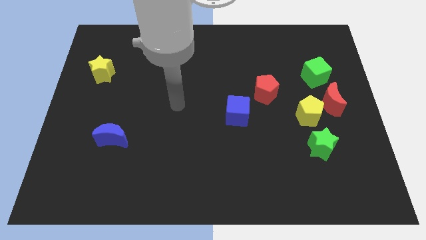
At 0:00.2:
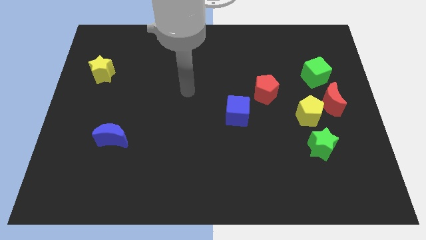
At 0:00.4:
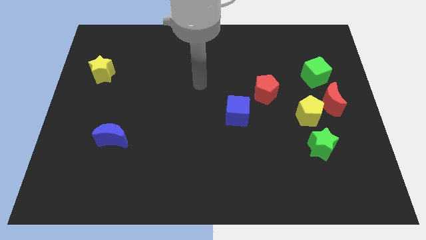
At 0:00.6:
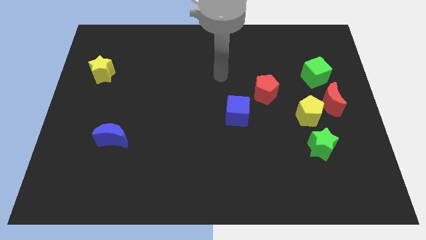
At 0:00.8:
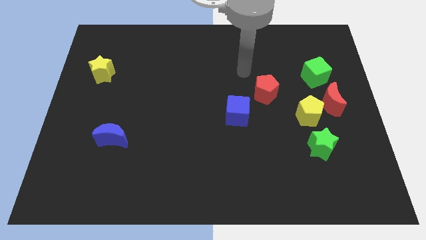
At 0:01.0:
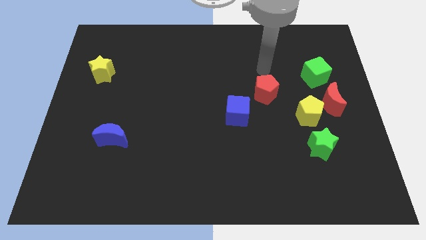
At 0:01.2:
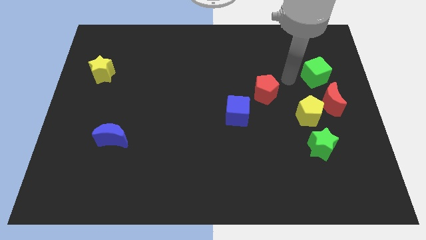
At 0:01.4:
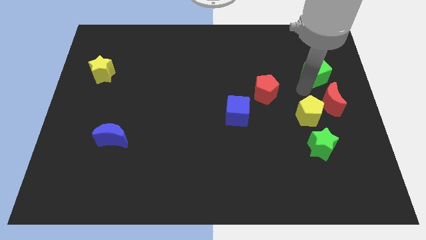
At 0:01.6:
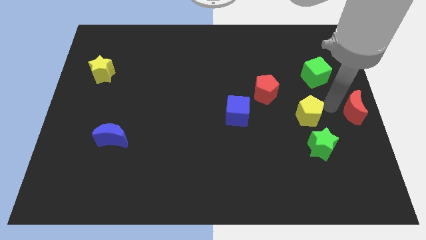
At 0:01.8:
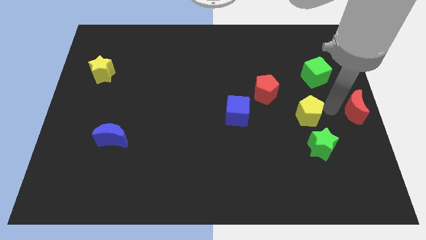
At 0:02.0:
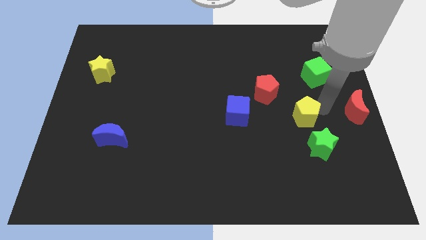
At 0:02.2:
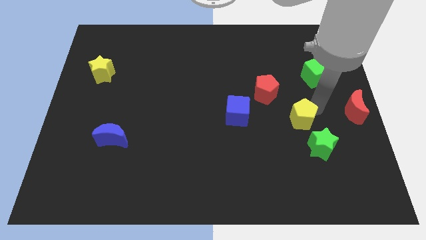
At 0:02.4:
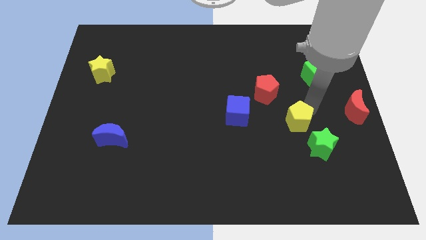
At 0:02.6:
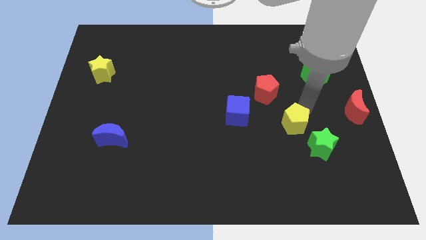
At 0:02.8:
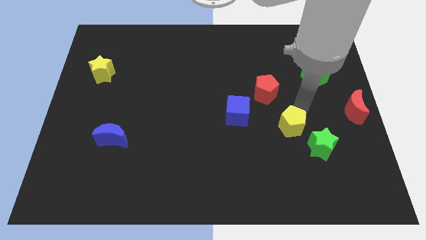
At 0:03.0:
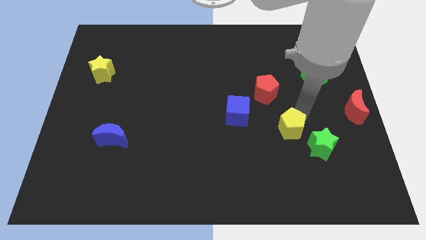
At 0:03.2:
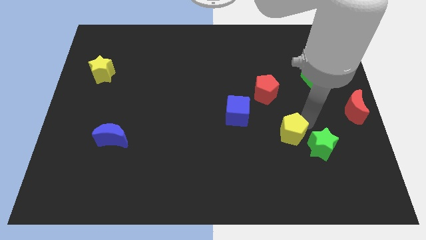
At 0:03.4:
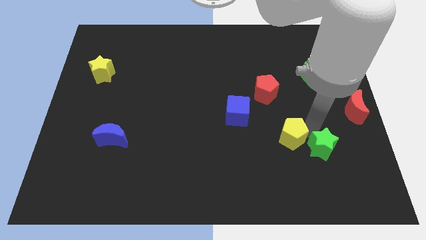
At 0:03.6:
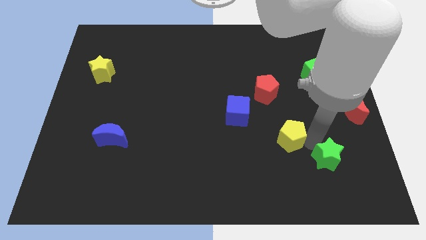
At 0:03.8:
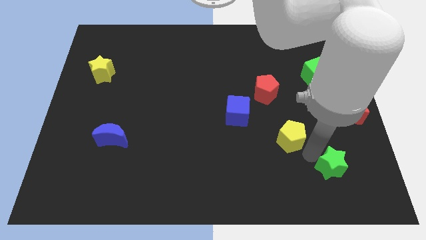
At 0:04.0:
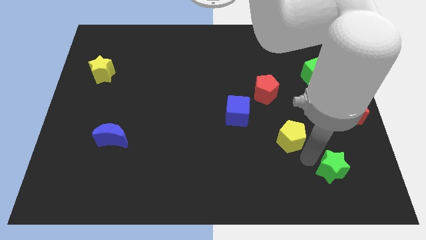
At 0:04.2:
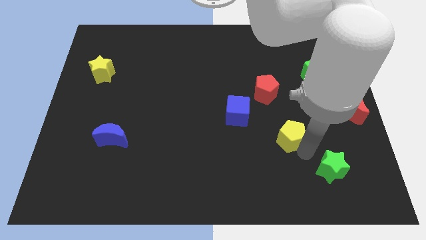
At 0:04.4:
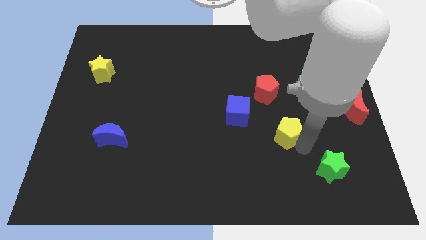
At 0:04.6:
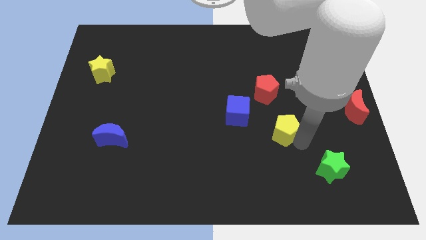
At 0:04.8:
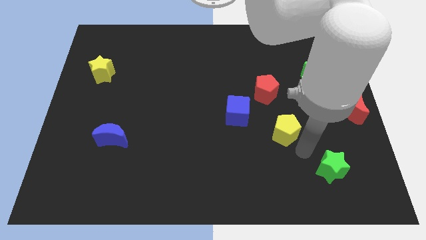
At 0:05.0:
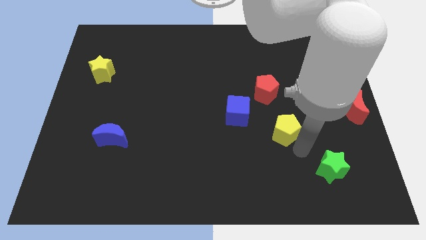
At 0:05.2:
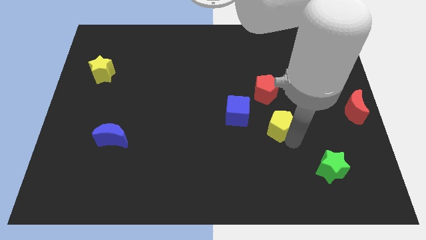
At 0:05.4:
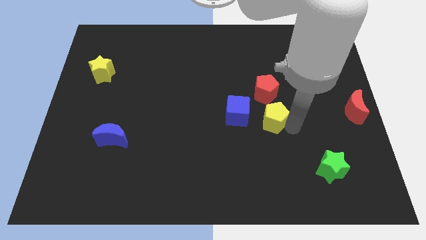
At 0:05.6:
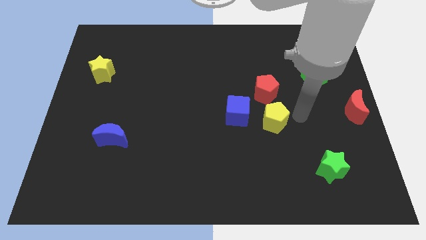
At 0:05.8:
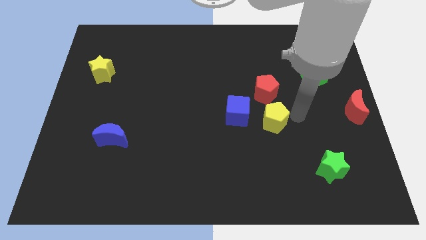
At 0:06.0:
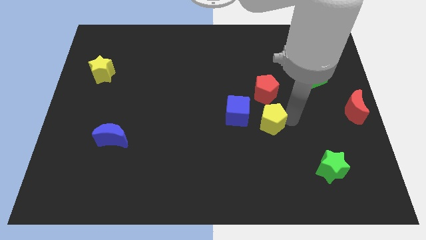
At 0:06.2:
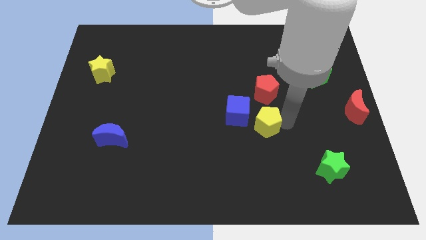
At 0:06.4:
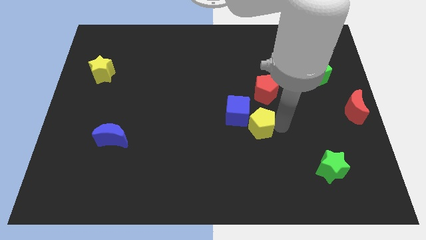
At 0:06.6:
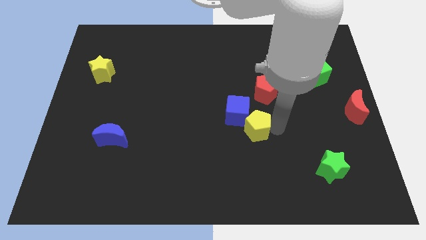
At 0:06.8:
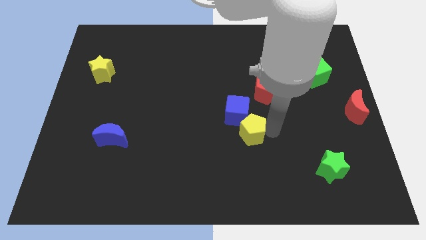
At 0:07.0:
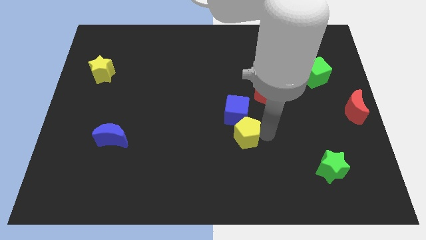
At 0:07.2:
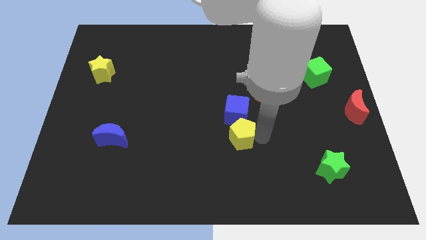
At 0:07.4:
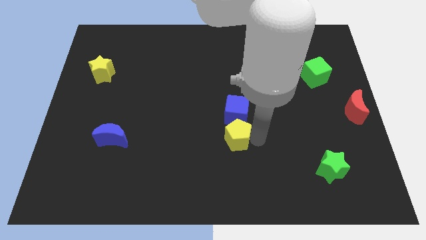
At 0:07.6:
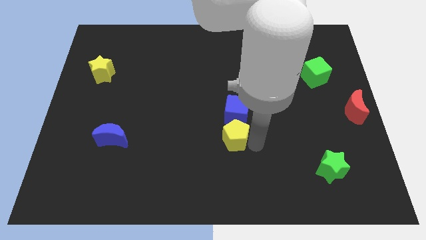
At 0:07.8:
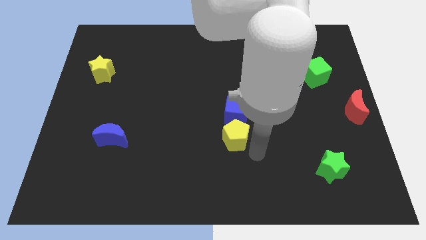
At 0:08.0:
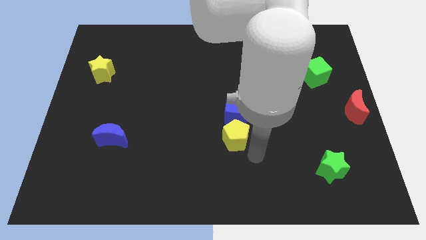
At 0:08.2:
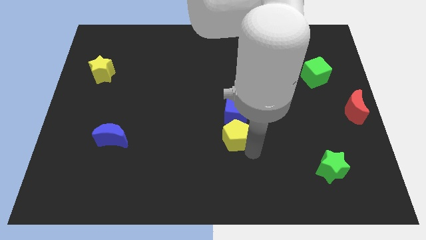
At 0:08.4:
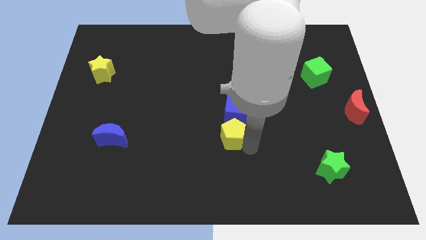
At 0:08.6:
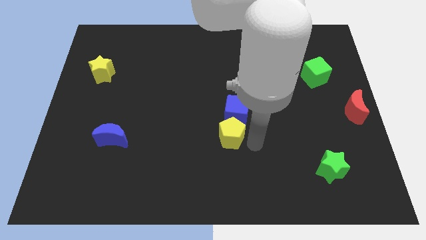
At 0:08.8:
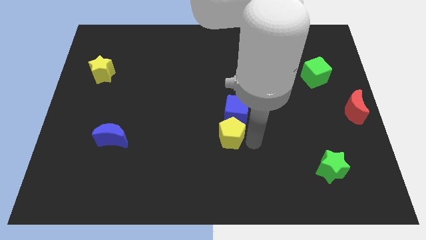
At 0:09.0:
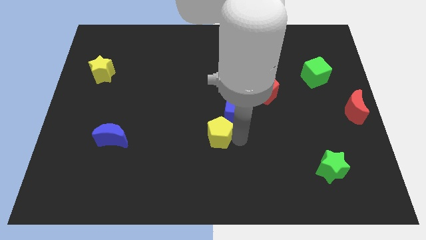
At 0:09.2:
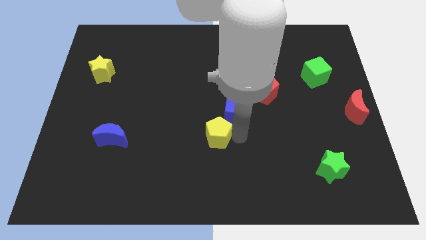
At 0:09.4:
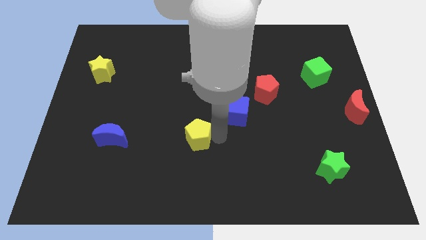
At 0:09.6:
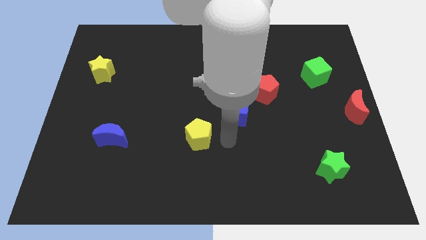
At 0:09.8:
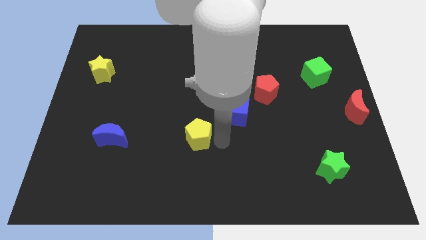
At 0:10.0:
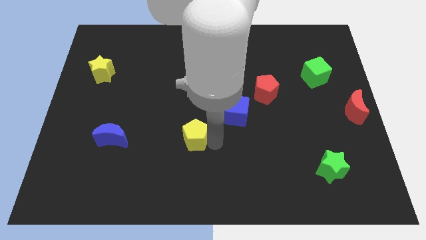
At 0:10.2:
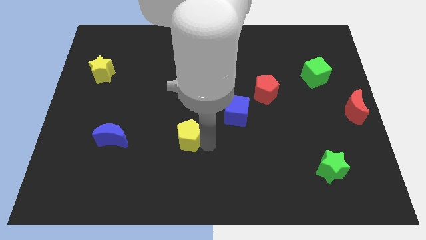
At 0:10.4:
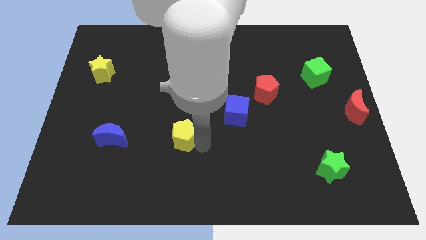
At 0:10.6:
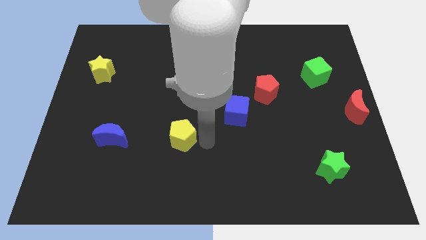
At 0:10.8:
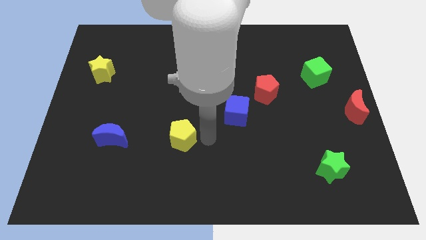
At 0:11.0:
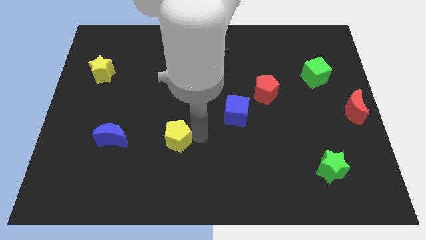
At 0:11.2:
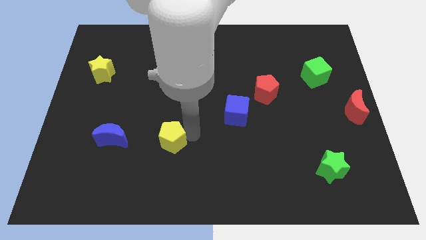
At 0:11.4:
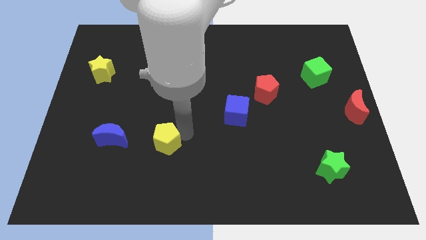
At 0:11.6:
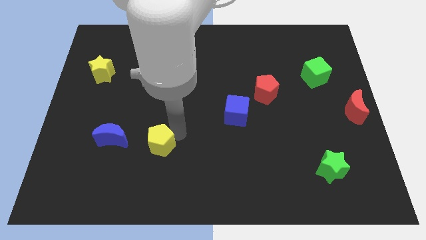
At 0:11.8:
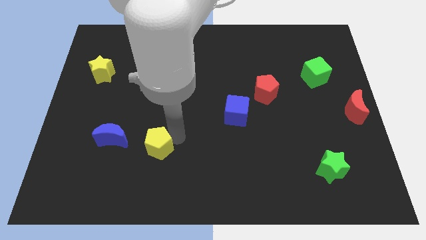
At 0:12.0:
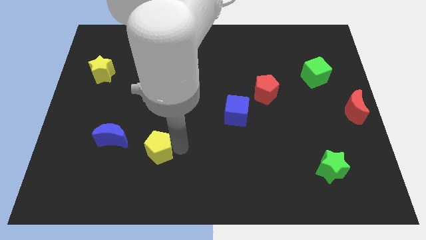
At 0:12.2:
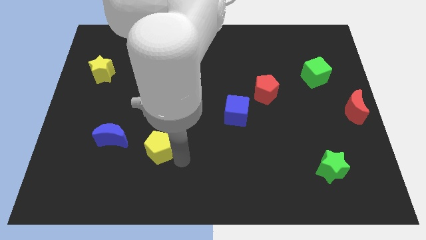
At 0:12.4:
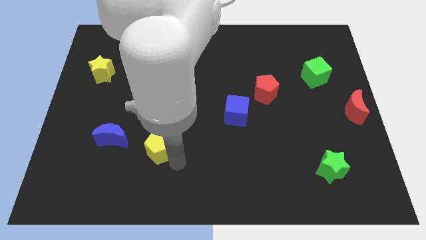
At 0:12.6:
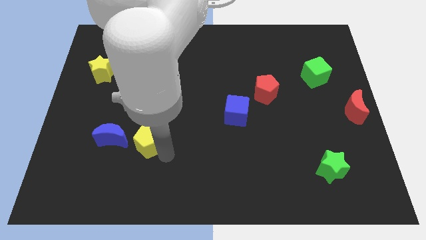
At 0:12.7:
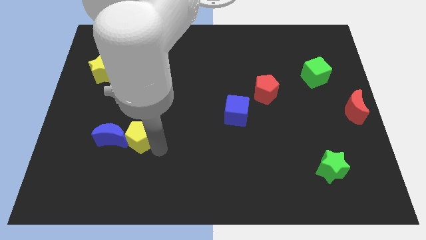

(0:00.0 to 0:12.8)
slide the yellow pentagon to the blue moon
